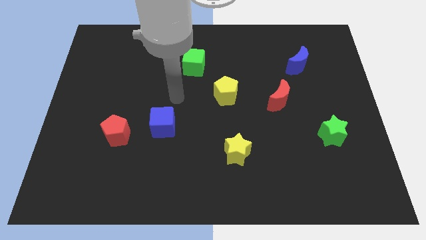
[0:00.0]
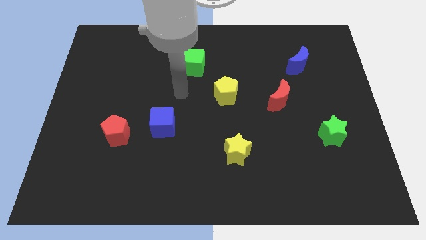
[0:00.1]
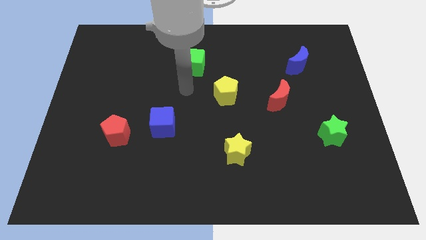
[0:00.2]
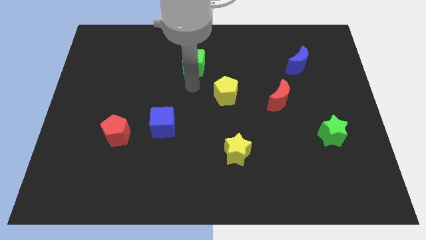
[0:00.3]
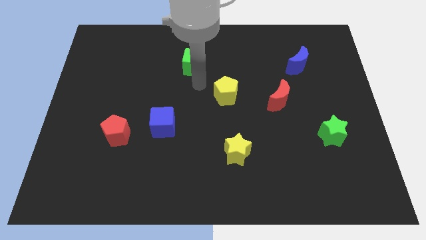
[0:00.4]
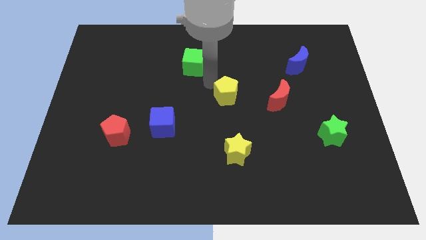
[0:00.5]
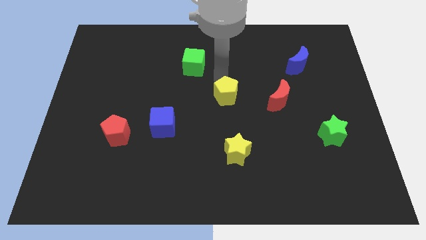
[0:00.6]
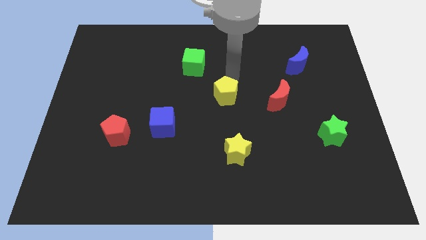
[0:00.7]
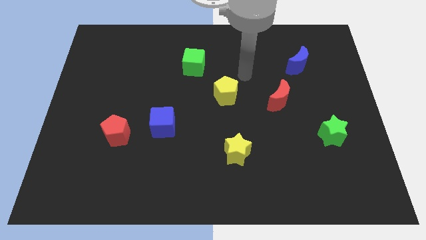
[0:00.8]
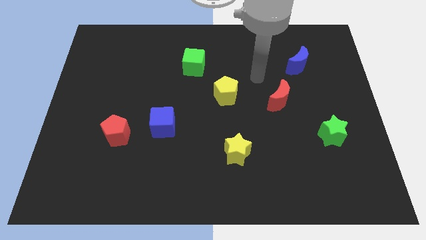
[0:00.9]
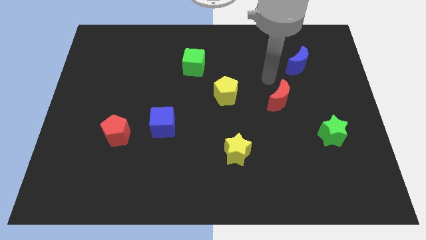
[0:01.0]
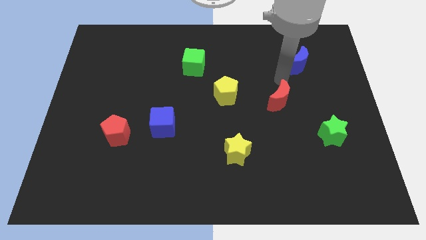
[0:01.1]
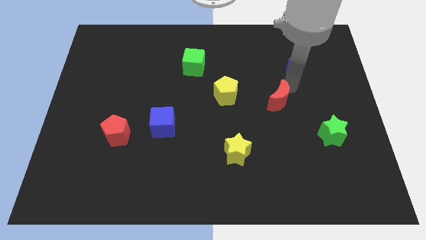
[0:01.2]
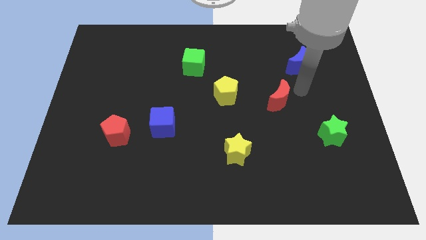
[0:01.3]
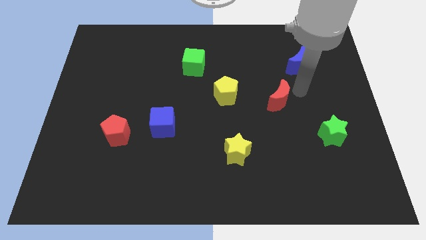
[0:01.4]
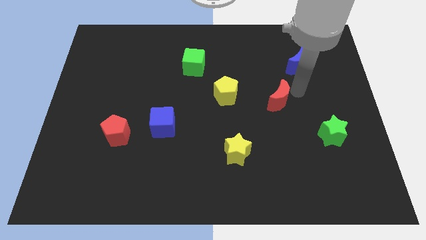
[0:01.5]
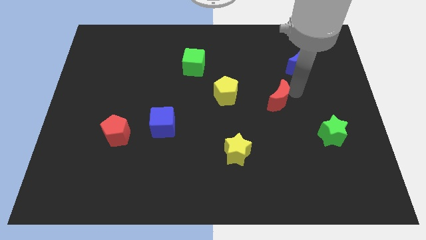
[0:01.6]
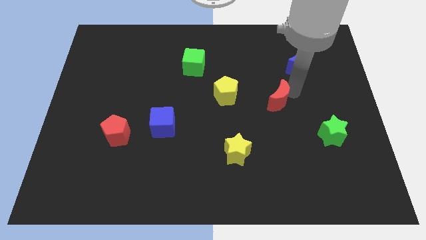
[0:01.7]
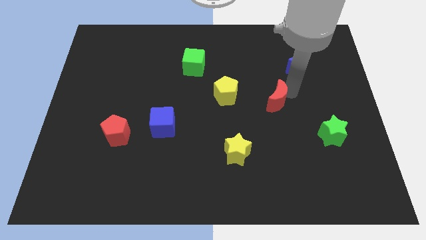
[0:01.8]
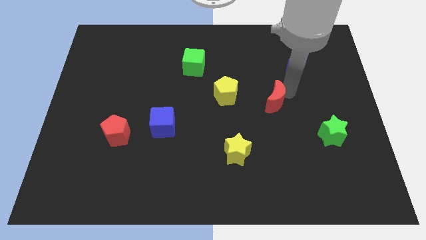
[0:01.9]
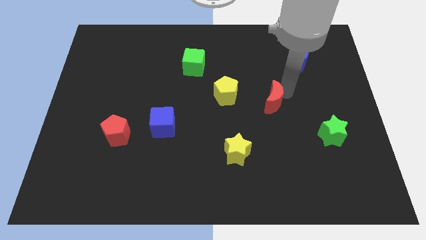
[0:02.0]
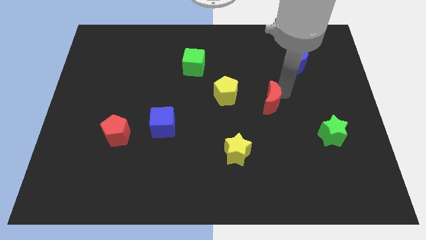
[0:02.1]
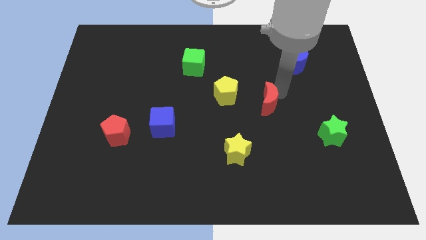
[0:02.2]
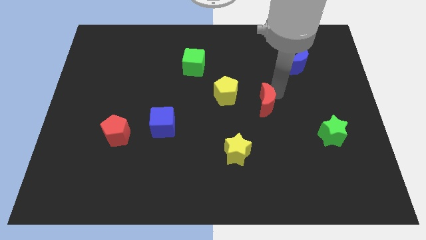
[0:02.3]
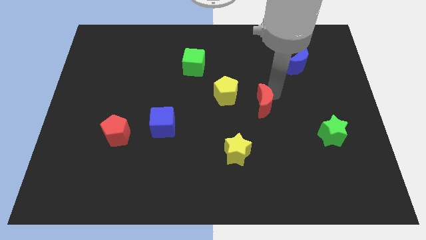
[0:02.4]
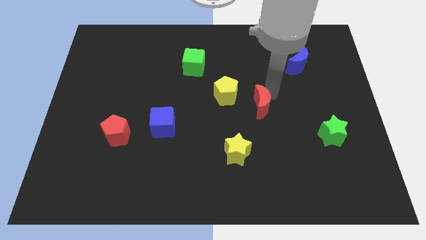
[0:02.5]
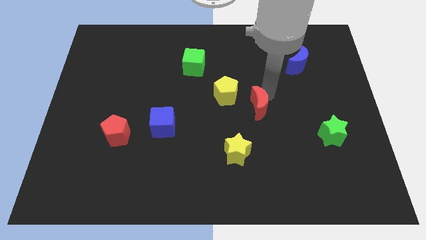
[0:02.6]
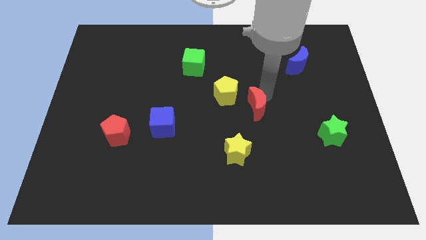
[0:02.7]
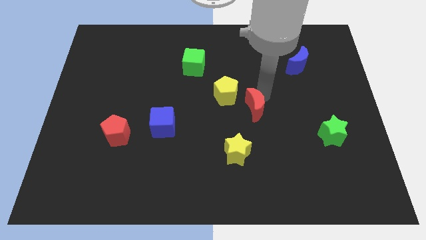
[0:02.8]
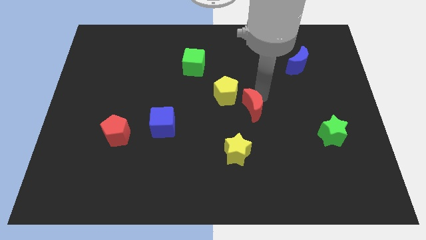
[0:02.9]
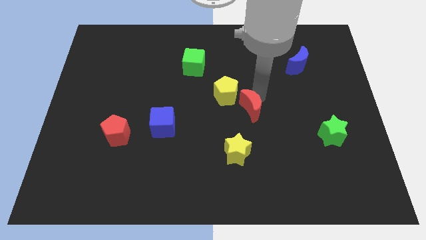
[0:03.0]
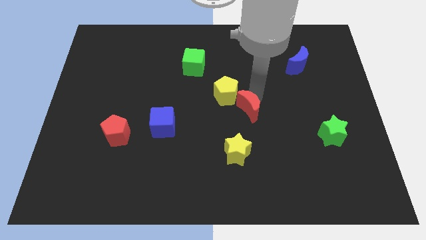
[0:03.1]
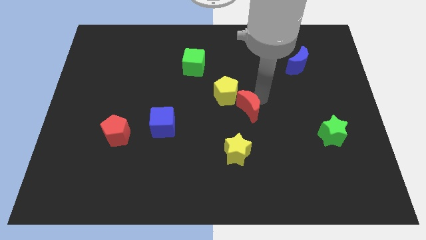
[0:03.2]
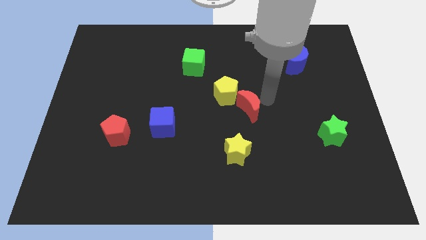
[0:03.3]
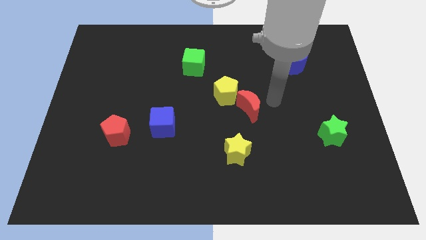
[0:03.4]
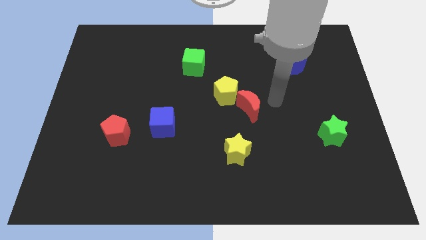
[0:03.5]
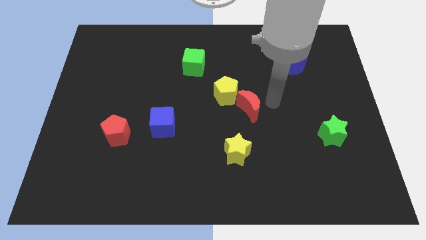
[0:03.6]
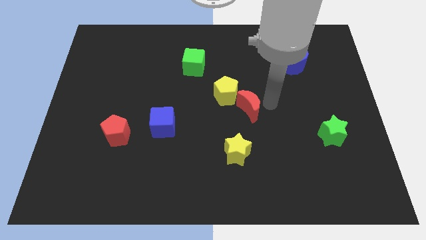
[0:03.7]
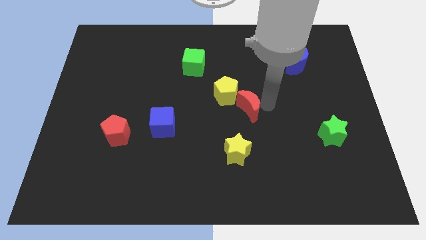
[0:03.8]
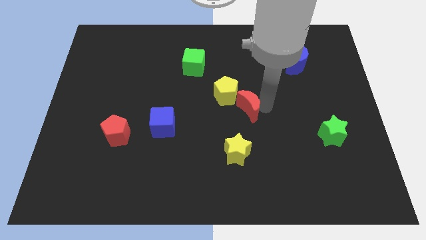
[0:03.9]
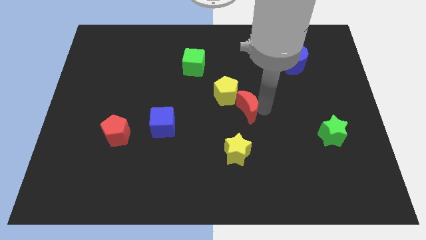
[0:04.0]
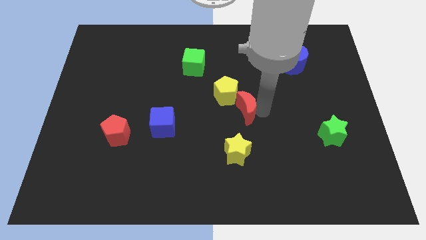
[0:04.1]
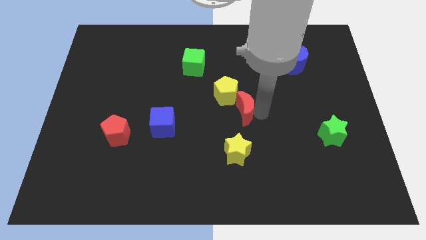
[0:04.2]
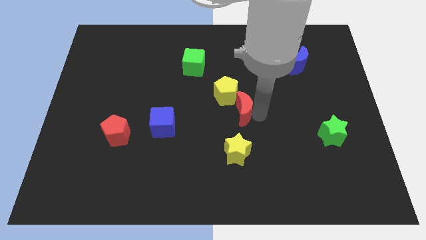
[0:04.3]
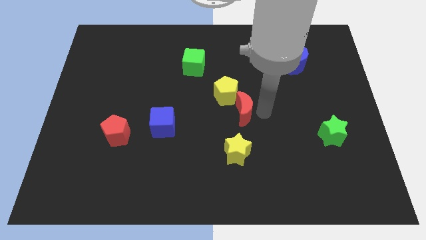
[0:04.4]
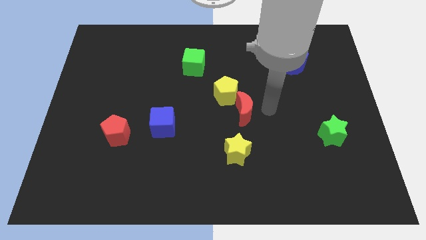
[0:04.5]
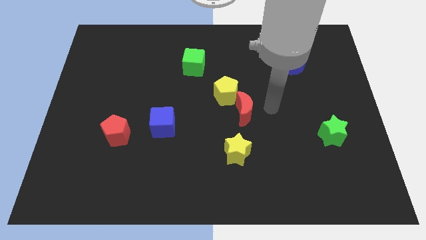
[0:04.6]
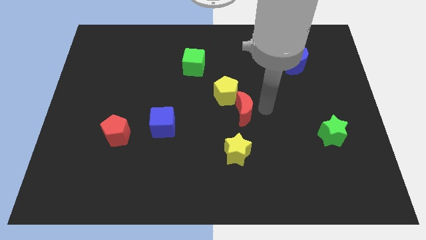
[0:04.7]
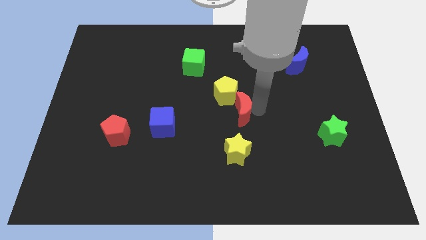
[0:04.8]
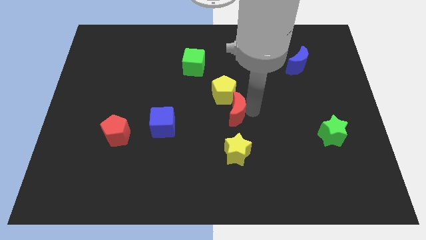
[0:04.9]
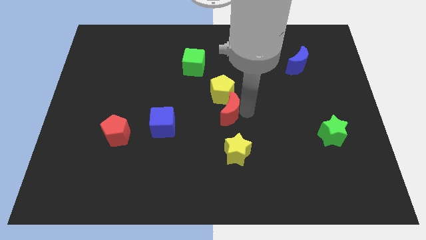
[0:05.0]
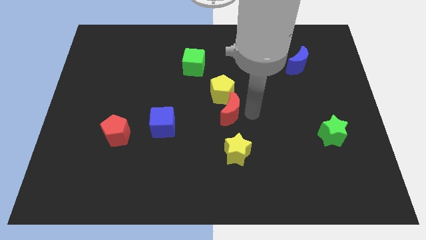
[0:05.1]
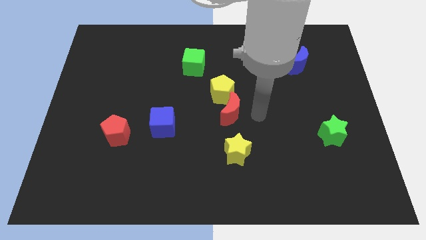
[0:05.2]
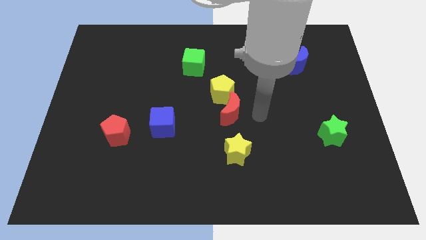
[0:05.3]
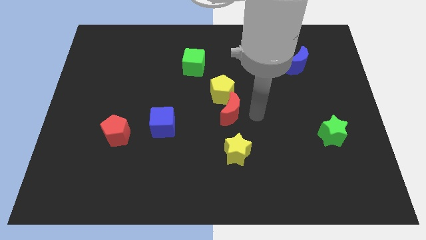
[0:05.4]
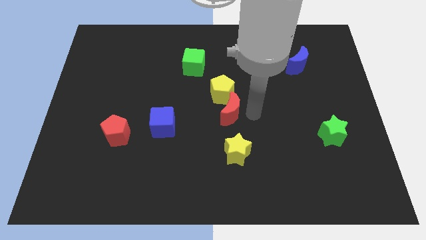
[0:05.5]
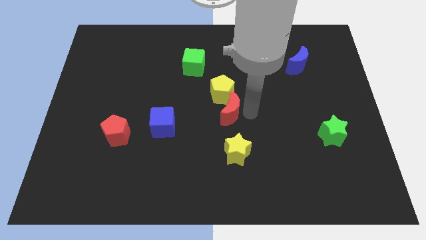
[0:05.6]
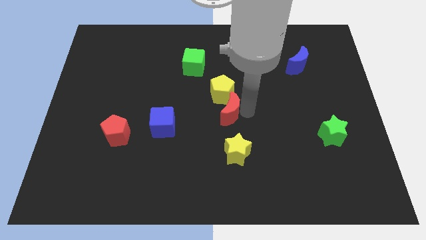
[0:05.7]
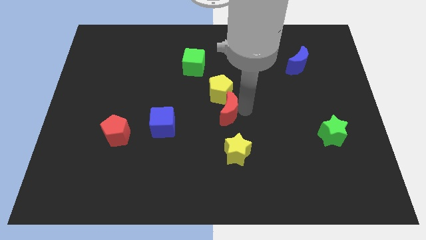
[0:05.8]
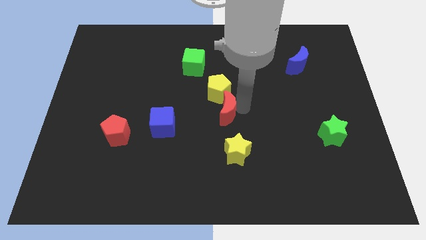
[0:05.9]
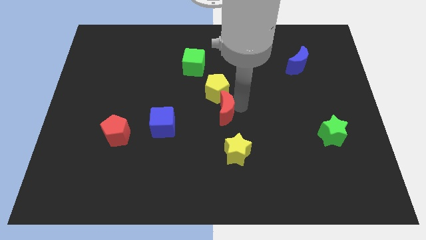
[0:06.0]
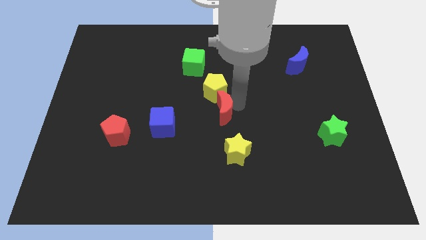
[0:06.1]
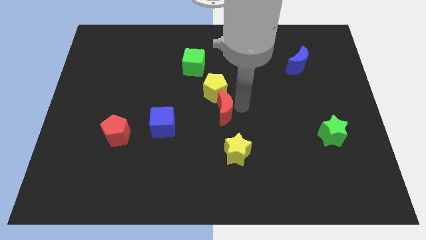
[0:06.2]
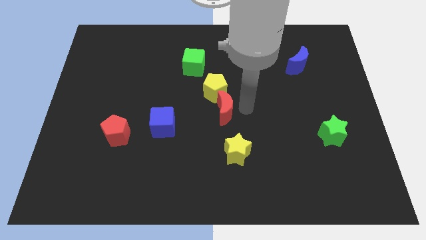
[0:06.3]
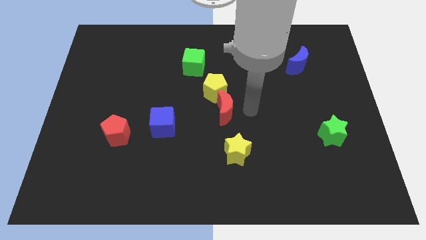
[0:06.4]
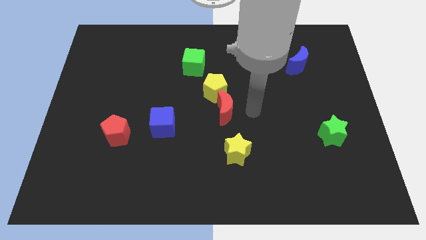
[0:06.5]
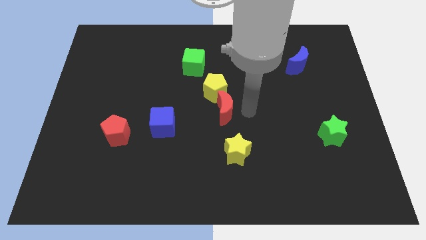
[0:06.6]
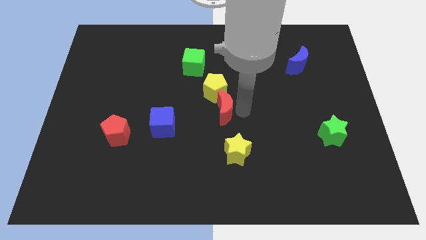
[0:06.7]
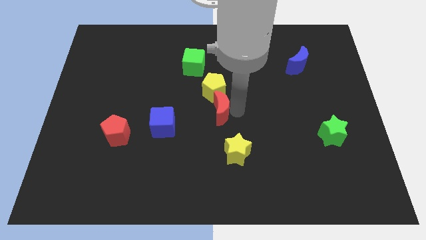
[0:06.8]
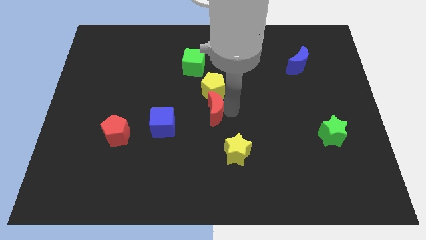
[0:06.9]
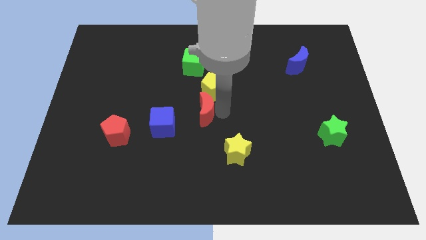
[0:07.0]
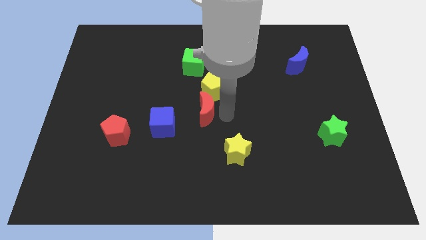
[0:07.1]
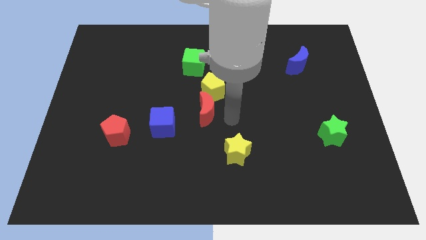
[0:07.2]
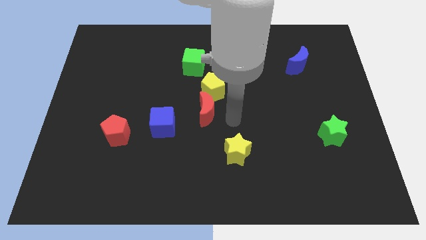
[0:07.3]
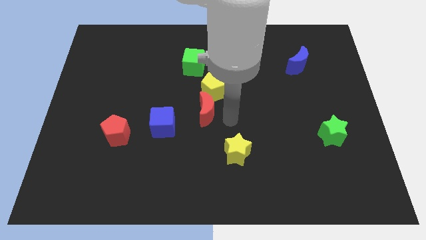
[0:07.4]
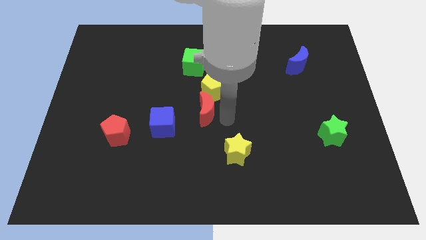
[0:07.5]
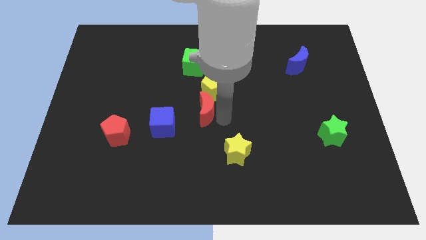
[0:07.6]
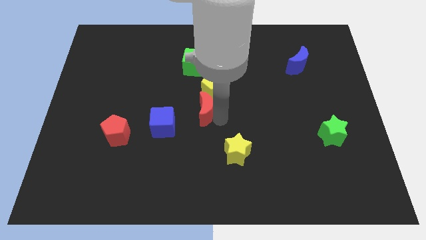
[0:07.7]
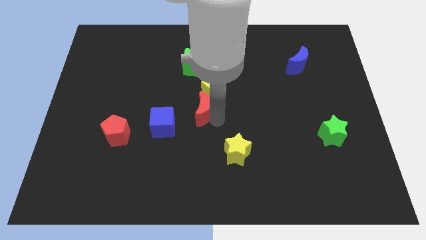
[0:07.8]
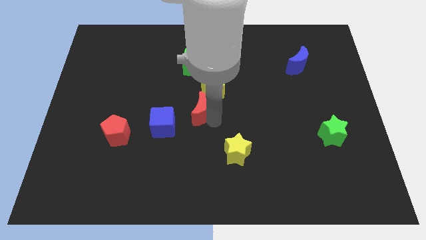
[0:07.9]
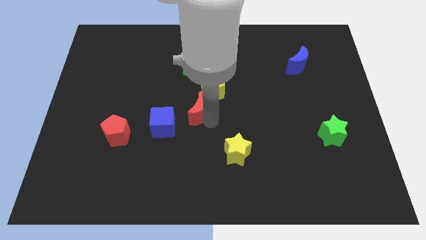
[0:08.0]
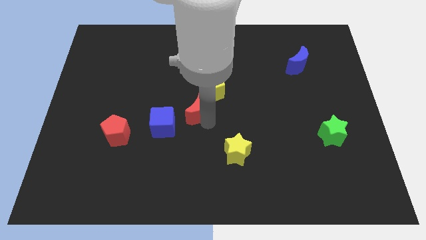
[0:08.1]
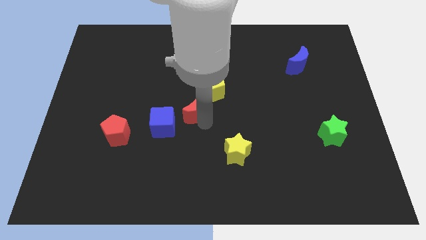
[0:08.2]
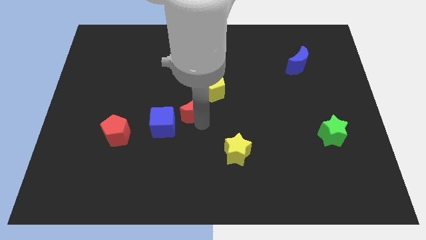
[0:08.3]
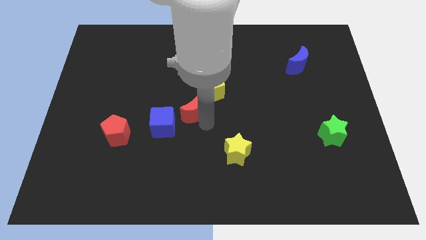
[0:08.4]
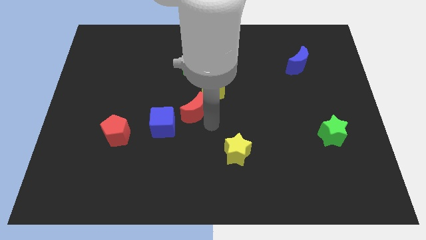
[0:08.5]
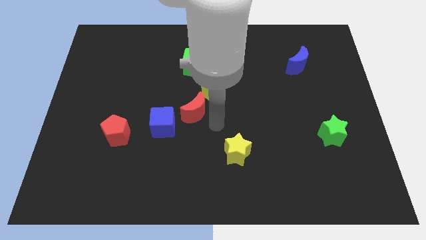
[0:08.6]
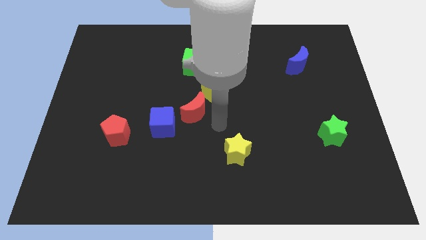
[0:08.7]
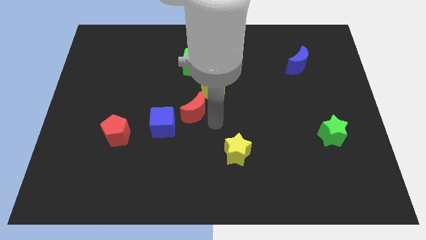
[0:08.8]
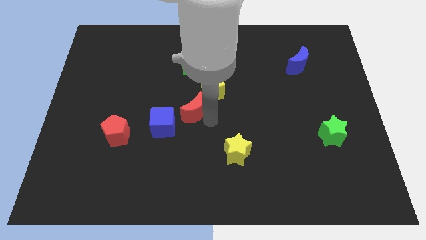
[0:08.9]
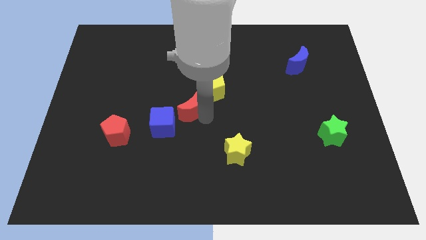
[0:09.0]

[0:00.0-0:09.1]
slide the red moon left
